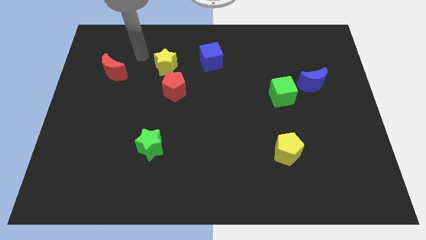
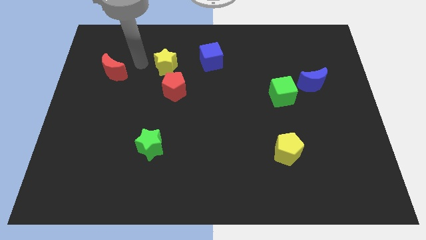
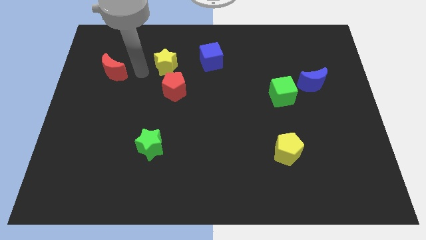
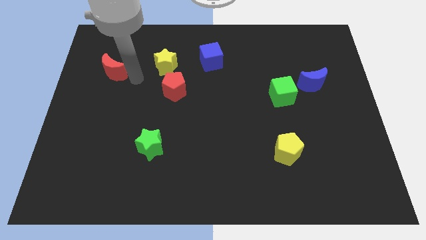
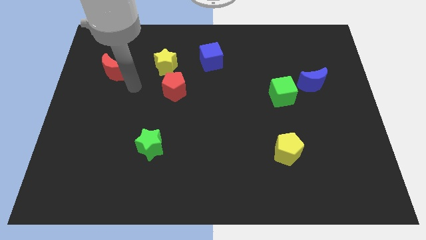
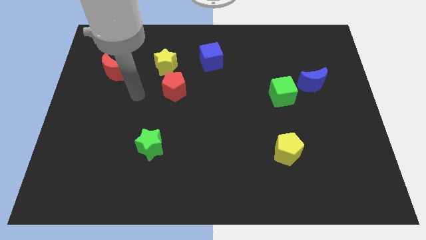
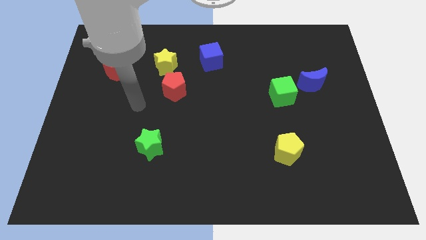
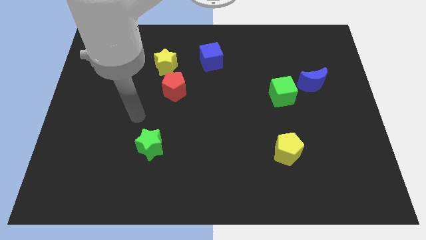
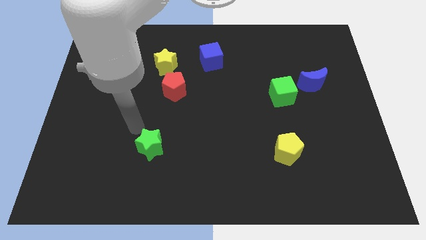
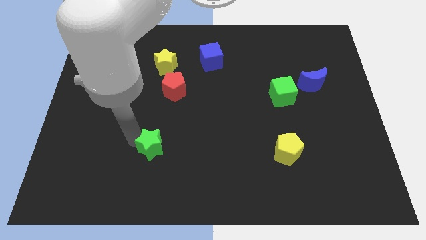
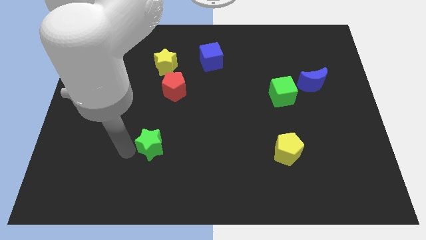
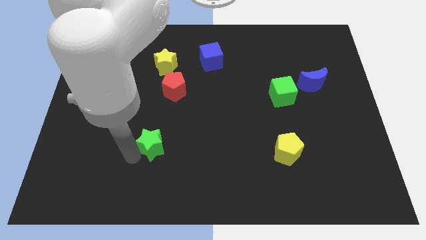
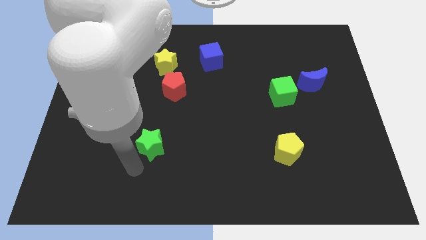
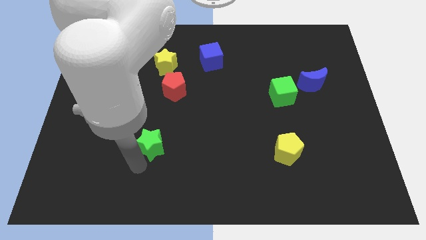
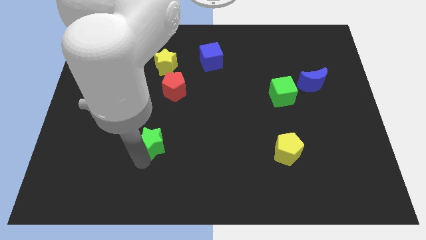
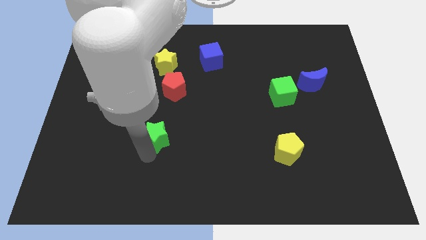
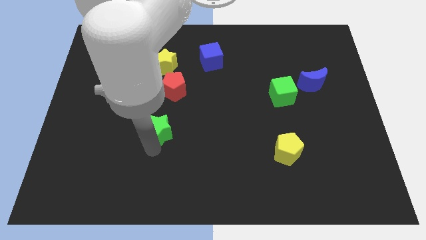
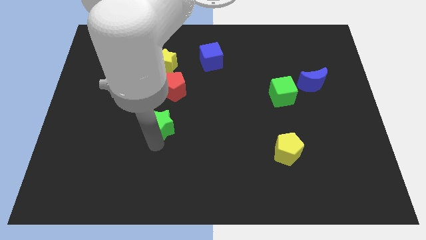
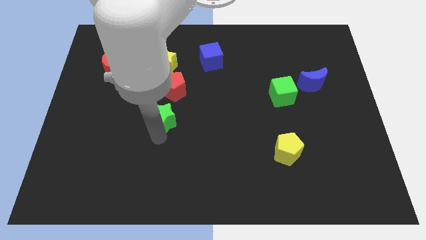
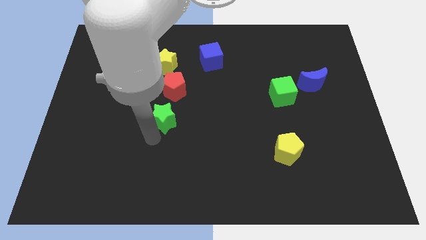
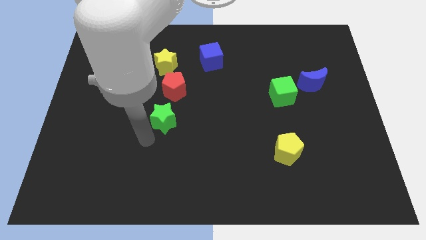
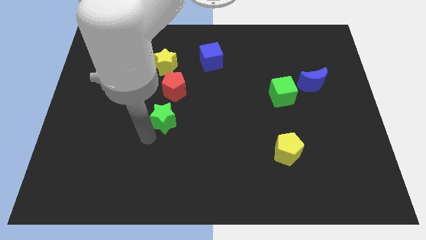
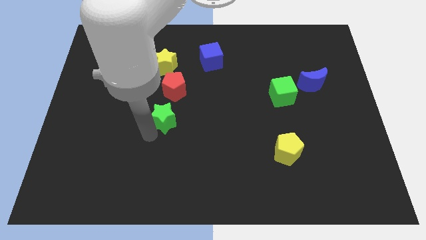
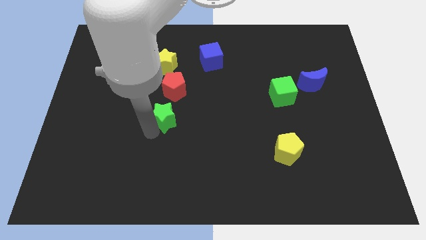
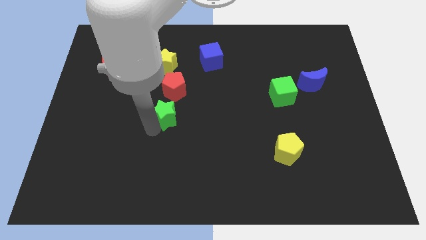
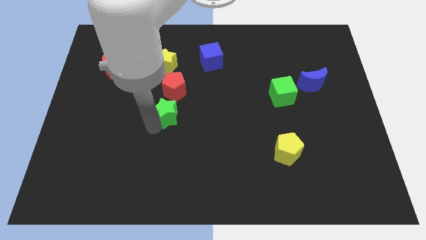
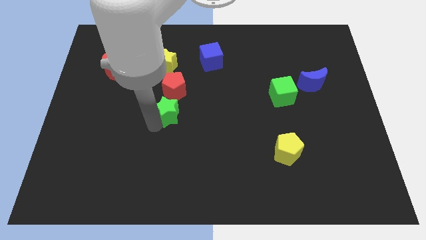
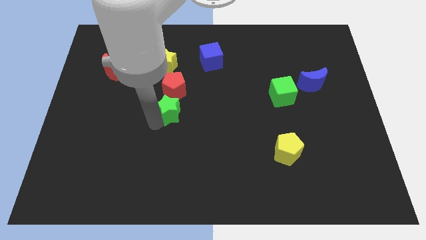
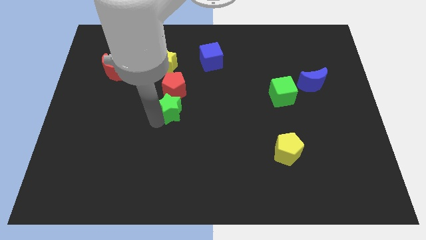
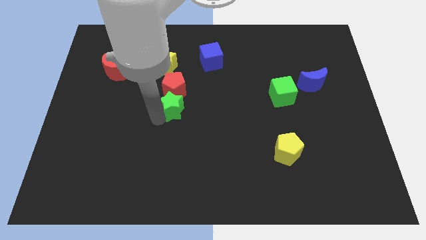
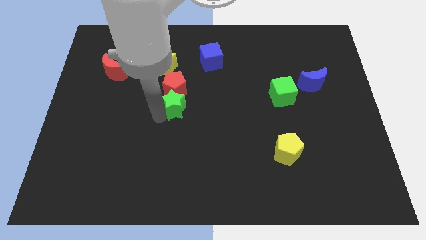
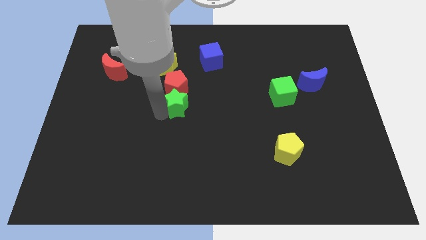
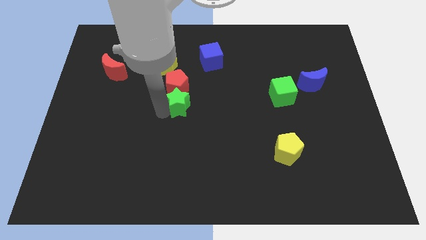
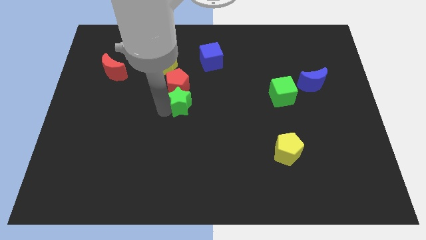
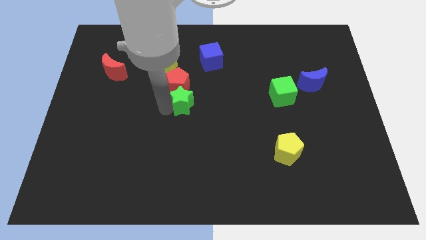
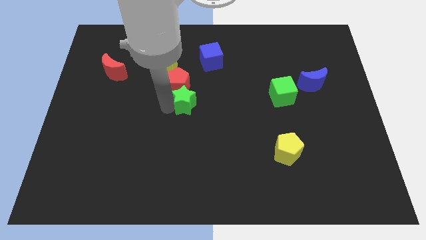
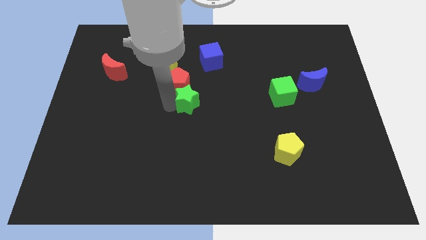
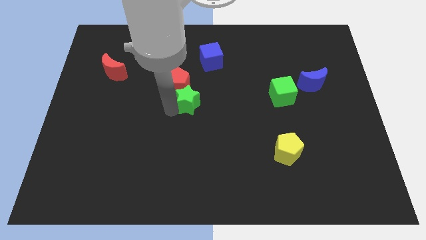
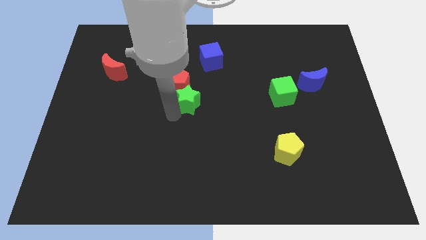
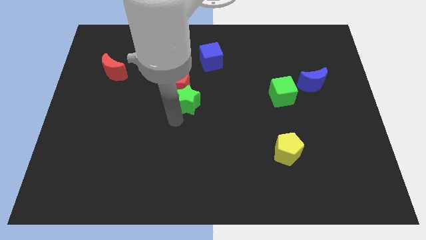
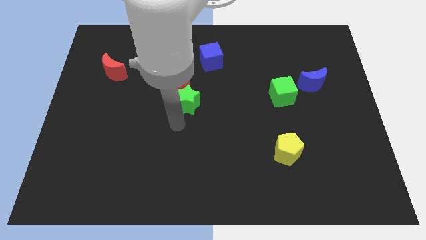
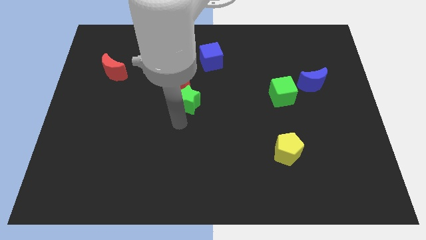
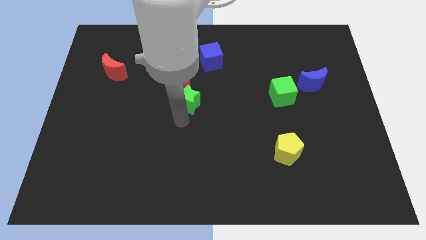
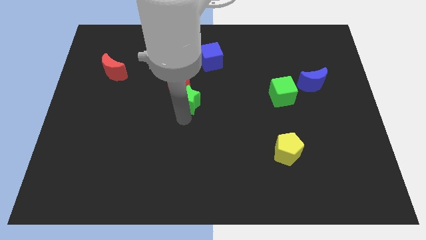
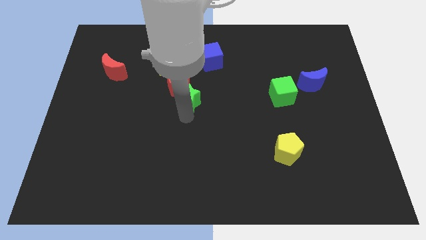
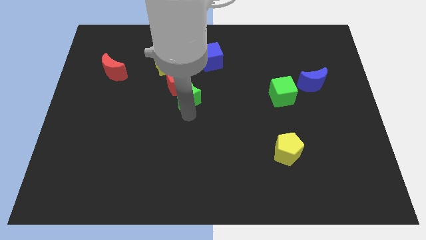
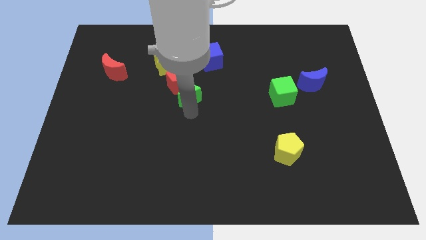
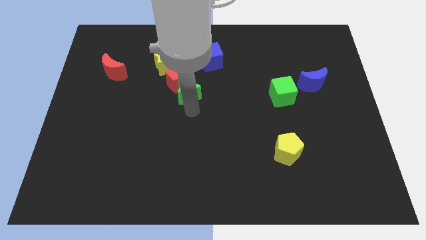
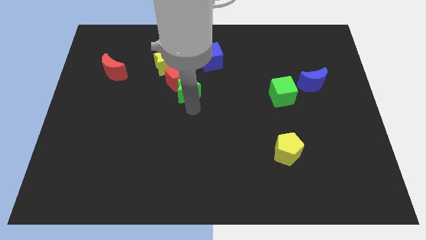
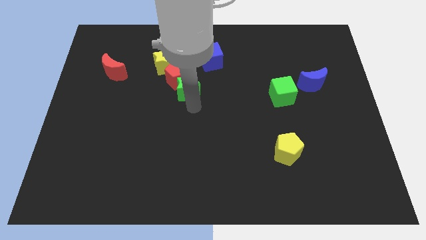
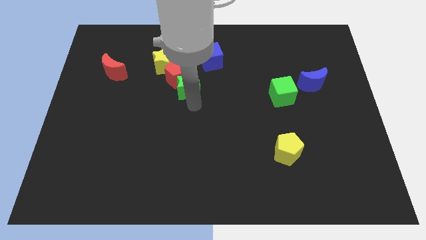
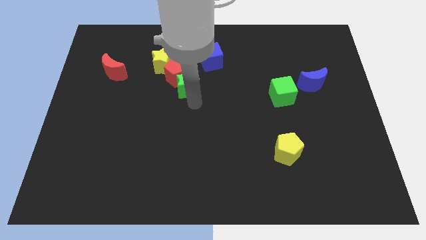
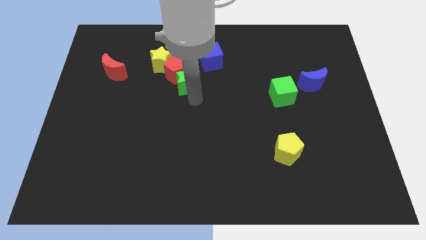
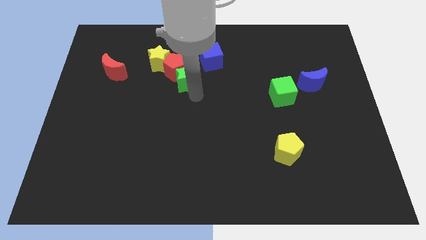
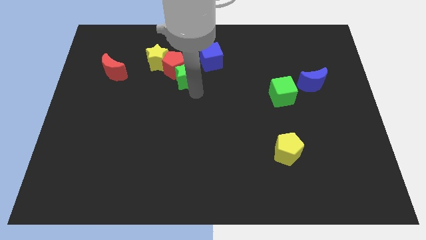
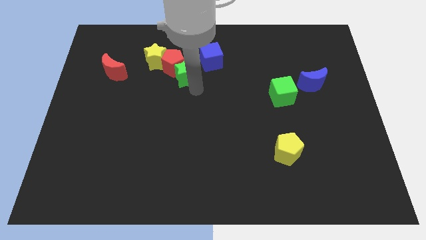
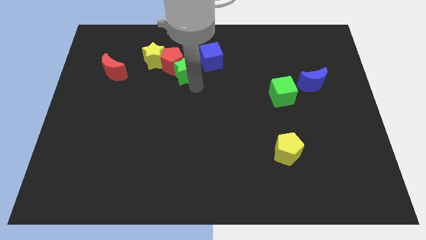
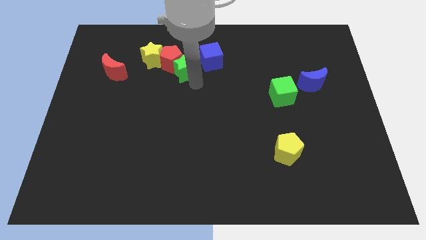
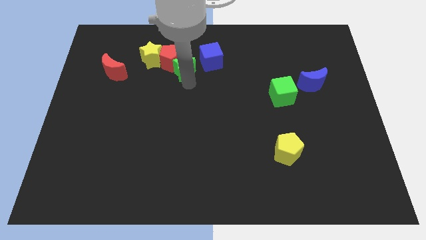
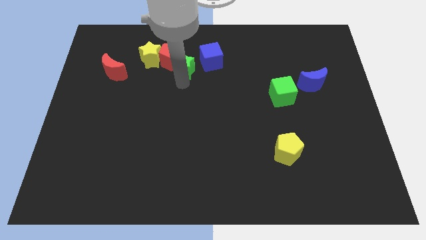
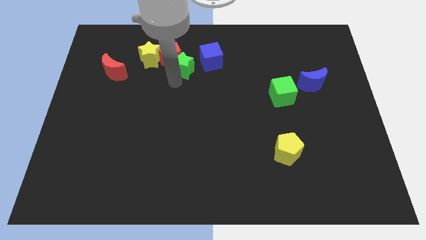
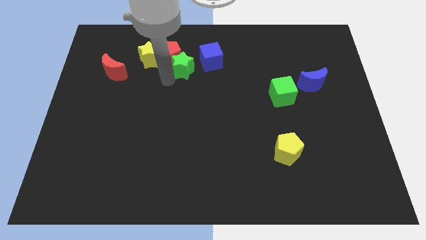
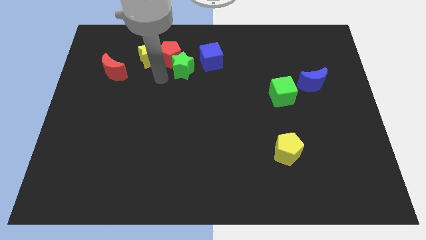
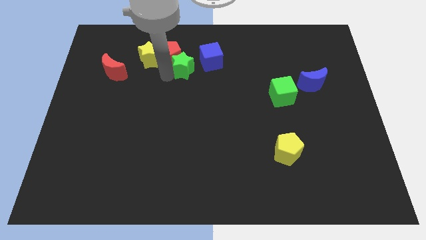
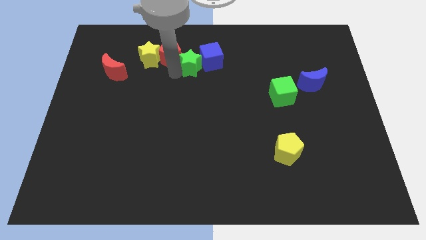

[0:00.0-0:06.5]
move the green star to the blue cube
